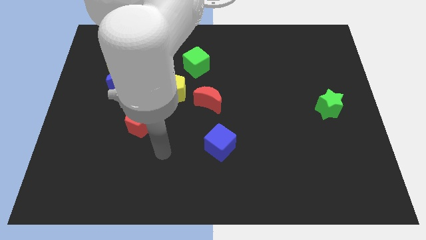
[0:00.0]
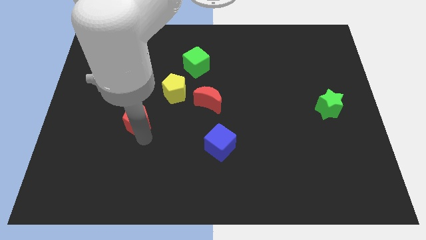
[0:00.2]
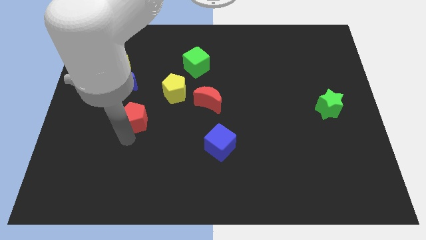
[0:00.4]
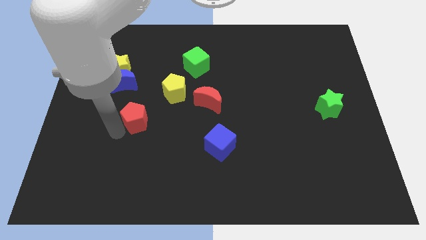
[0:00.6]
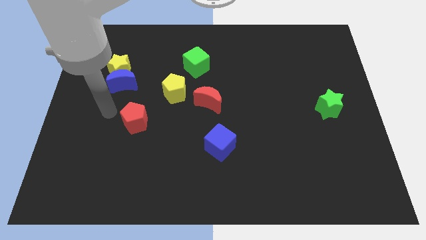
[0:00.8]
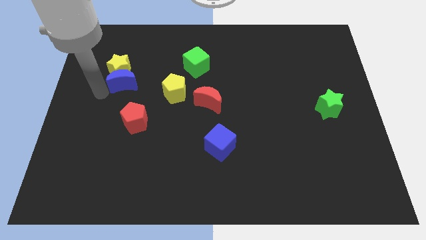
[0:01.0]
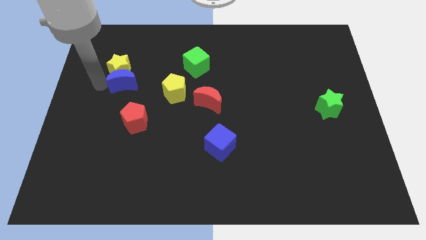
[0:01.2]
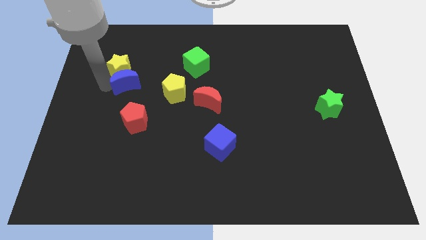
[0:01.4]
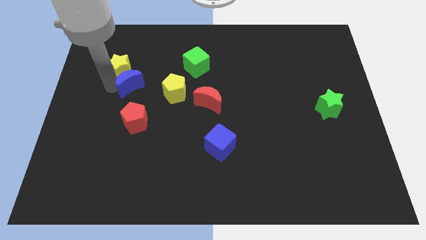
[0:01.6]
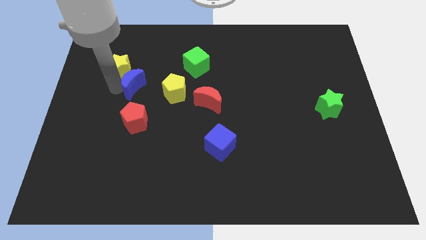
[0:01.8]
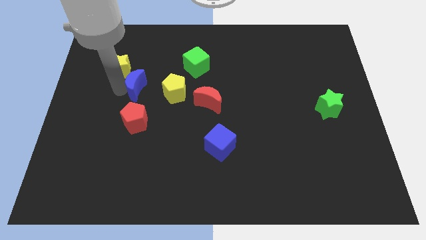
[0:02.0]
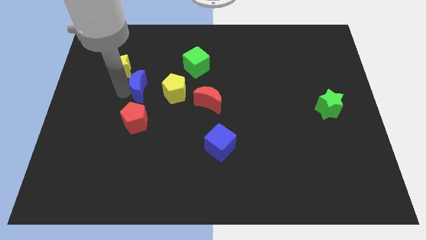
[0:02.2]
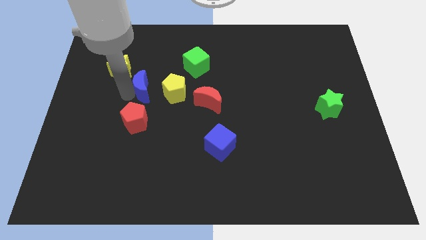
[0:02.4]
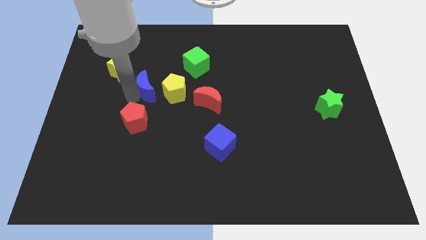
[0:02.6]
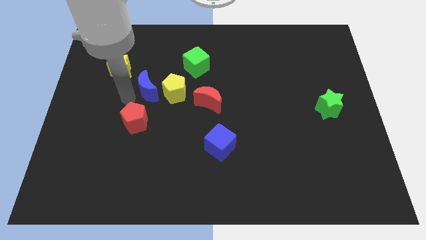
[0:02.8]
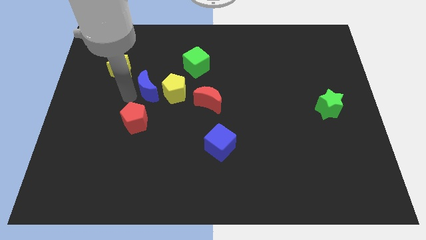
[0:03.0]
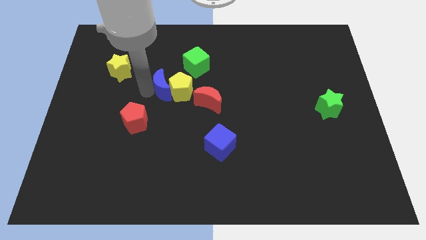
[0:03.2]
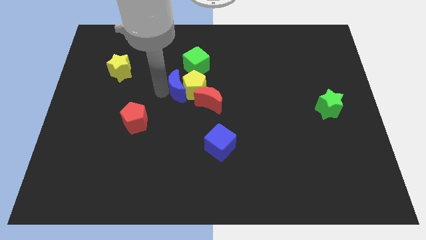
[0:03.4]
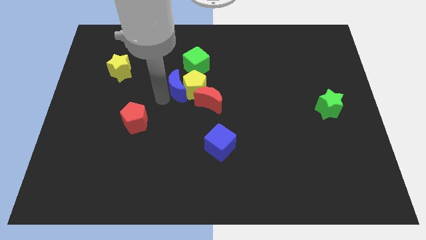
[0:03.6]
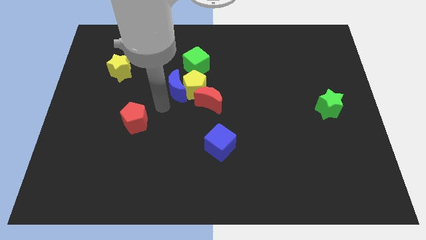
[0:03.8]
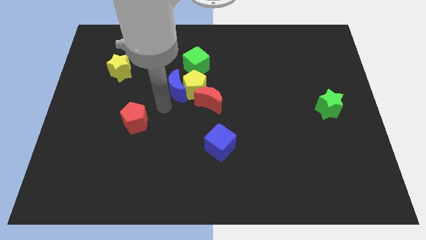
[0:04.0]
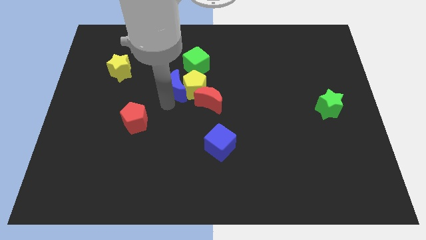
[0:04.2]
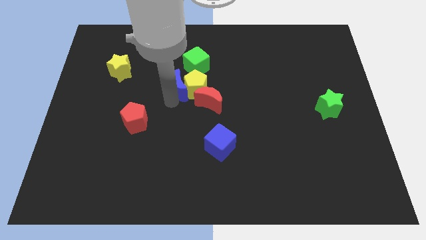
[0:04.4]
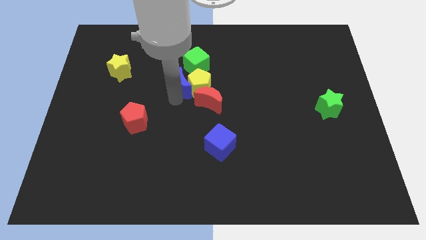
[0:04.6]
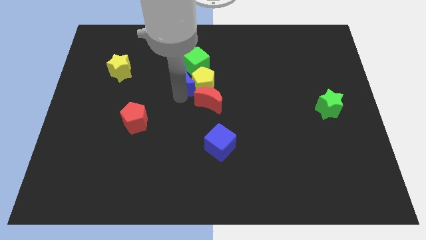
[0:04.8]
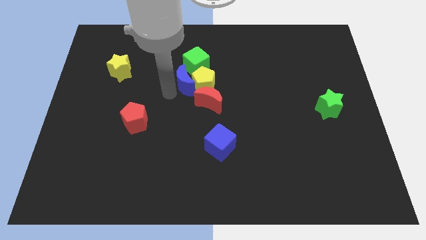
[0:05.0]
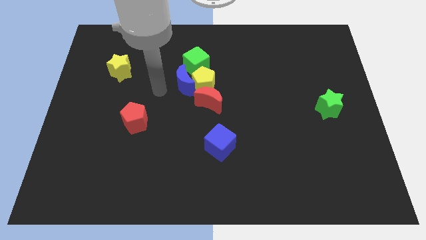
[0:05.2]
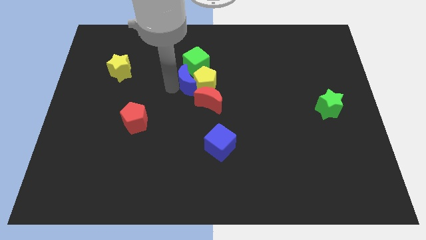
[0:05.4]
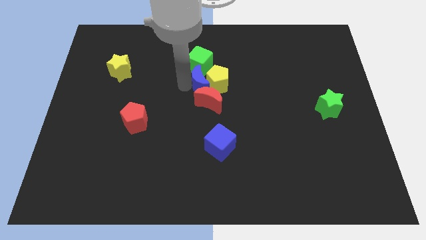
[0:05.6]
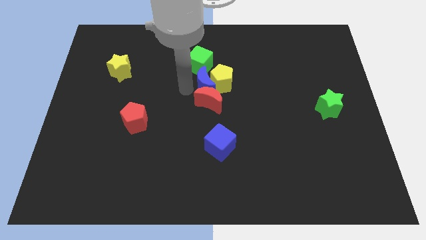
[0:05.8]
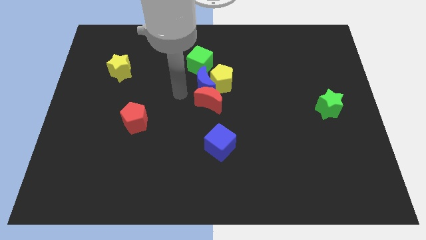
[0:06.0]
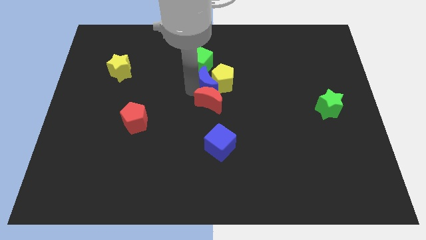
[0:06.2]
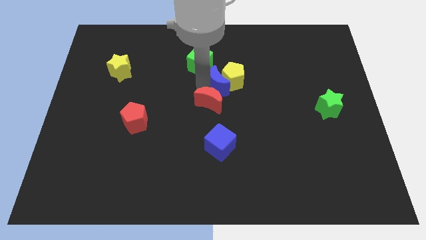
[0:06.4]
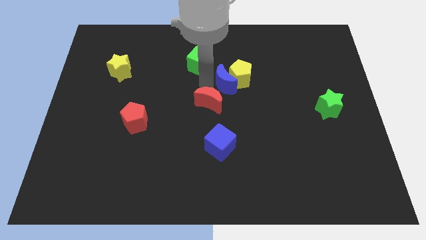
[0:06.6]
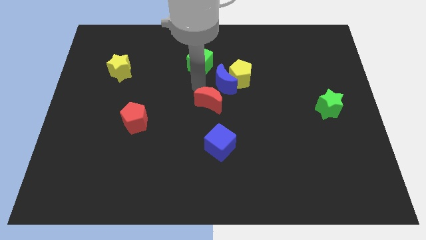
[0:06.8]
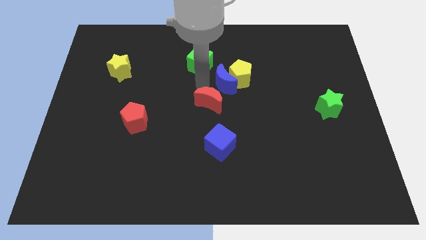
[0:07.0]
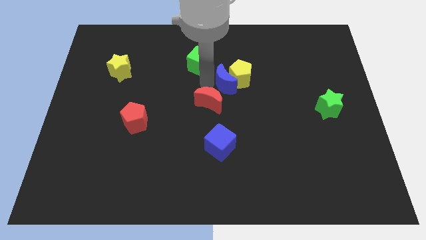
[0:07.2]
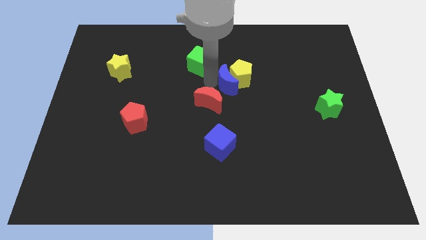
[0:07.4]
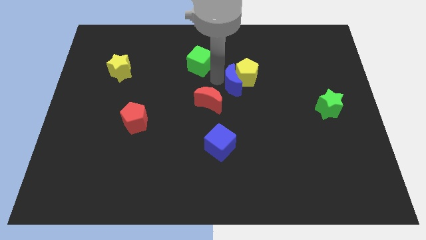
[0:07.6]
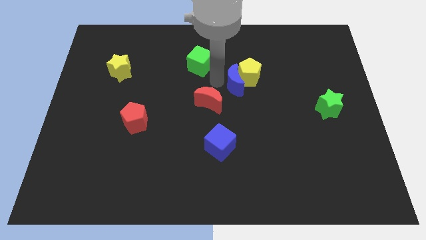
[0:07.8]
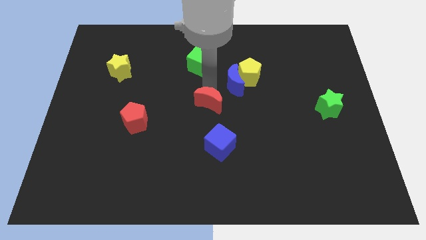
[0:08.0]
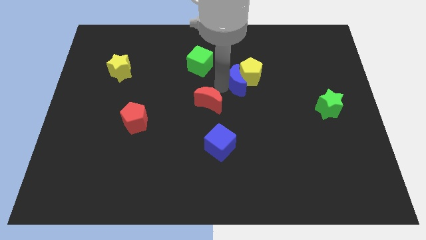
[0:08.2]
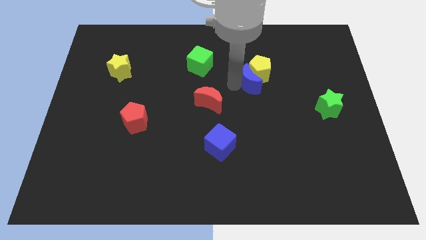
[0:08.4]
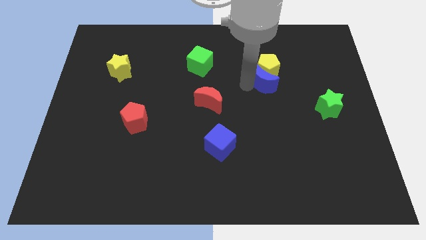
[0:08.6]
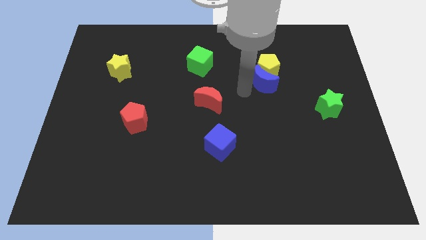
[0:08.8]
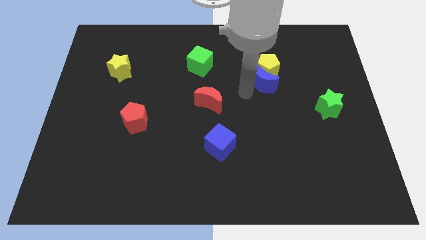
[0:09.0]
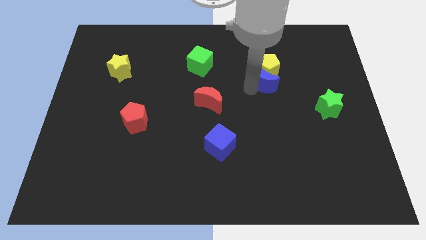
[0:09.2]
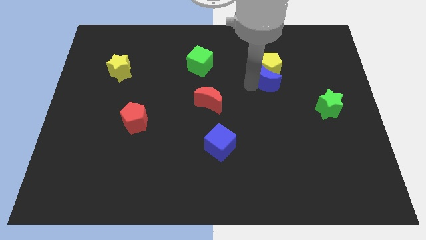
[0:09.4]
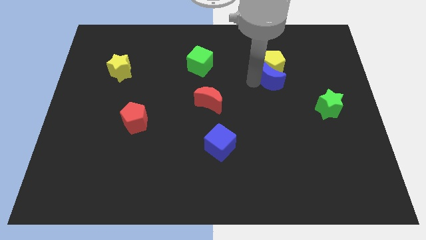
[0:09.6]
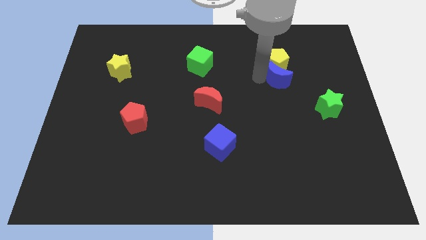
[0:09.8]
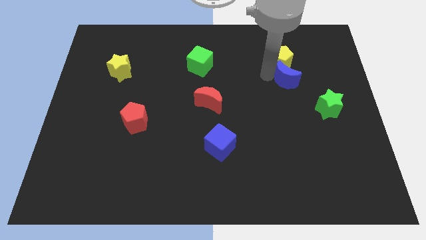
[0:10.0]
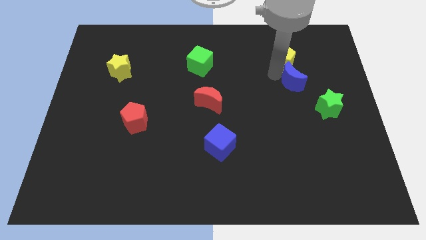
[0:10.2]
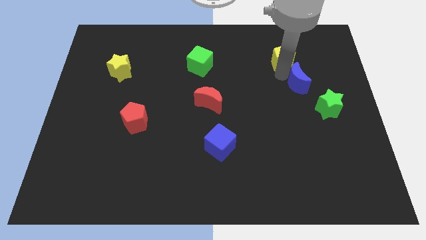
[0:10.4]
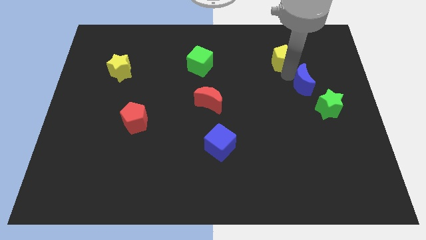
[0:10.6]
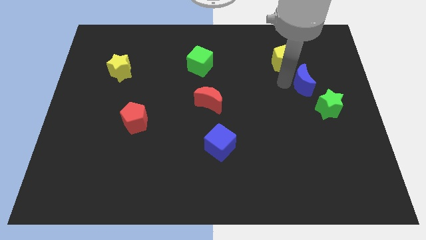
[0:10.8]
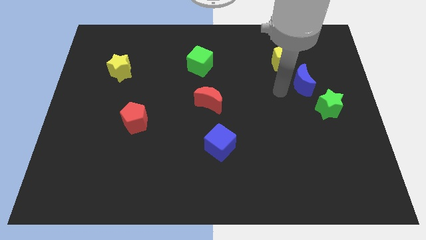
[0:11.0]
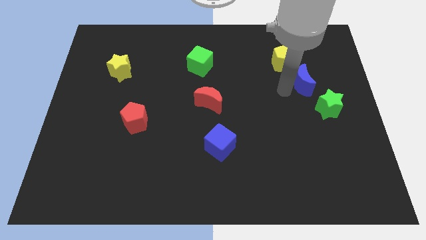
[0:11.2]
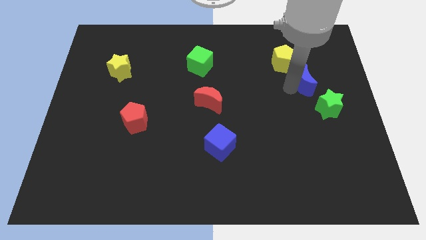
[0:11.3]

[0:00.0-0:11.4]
push the blue moon to the top of the green star
